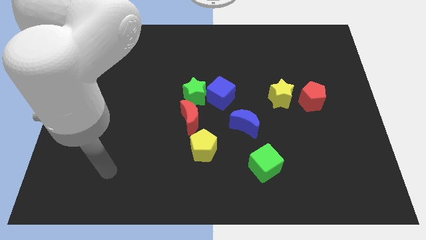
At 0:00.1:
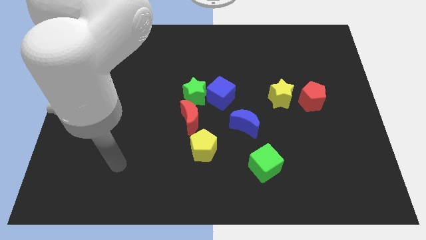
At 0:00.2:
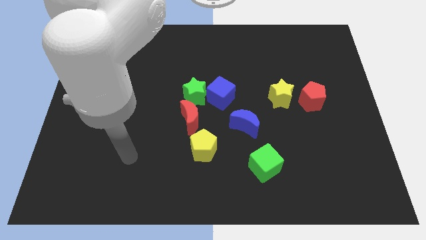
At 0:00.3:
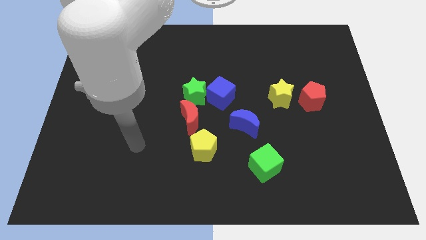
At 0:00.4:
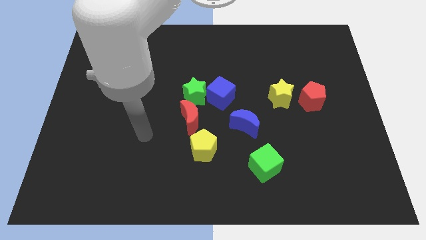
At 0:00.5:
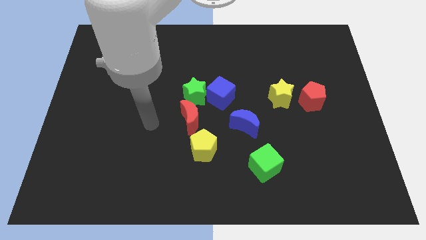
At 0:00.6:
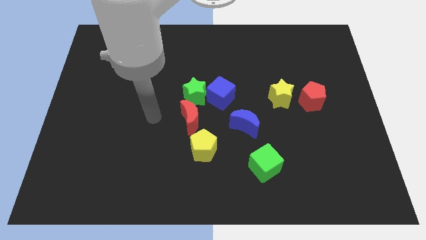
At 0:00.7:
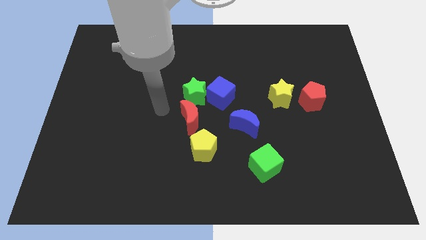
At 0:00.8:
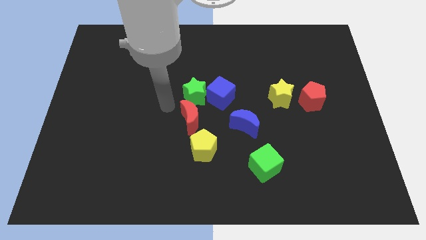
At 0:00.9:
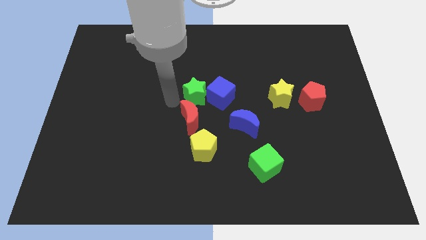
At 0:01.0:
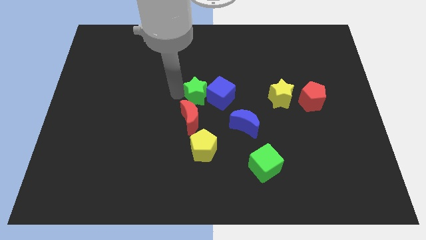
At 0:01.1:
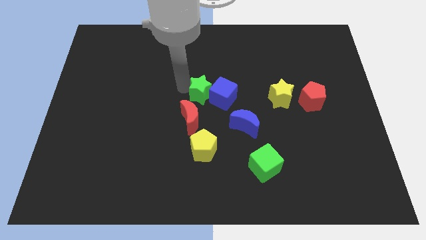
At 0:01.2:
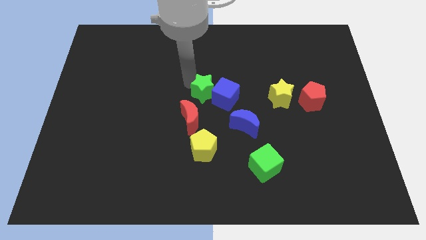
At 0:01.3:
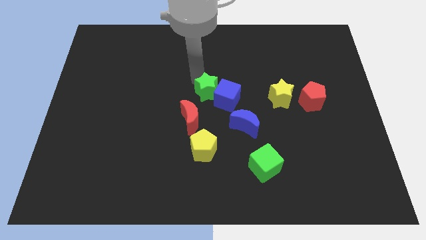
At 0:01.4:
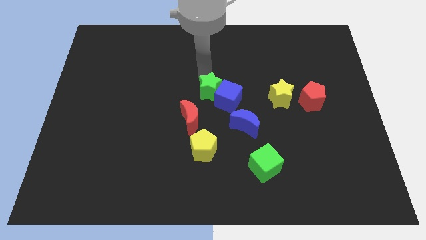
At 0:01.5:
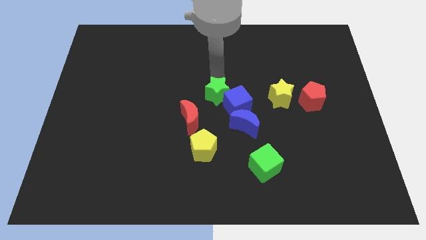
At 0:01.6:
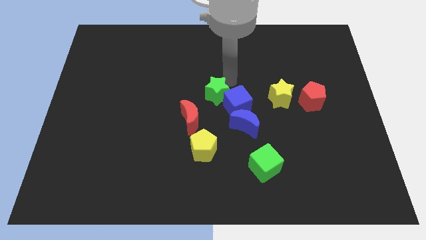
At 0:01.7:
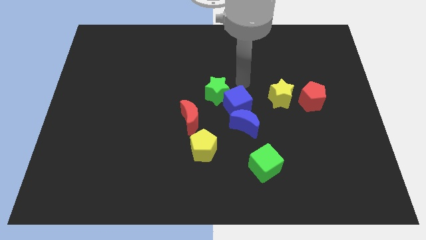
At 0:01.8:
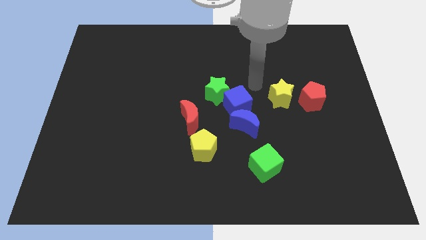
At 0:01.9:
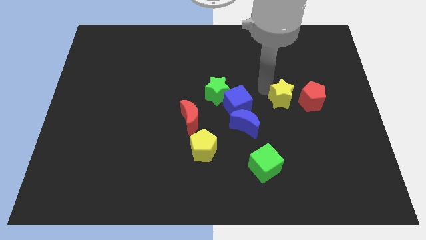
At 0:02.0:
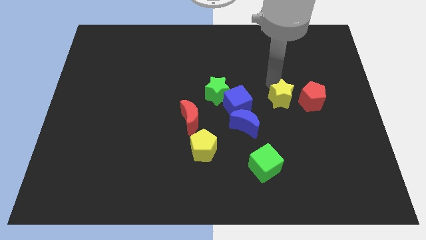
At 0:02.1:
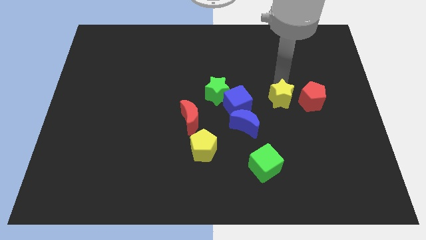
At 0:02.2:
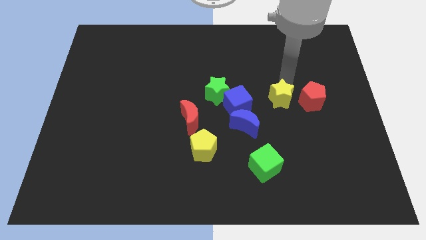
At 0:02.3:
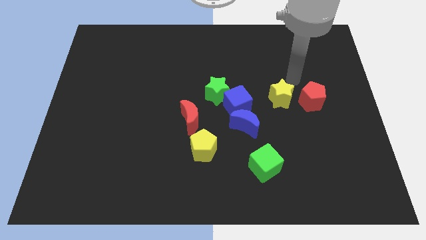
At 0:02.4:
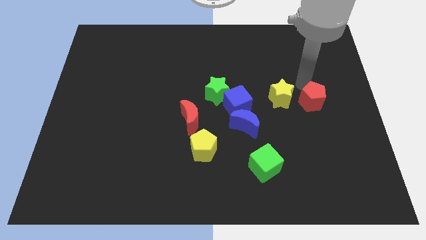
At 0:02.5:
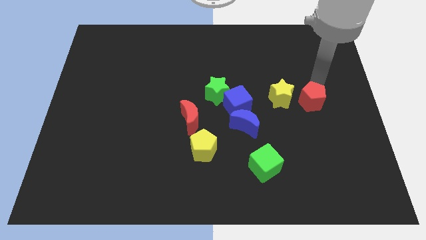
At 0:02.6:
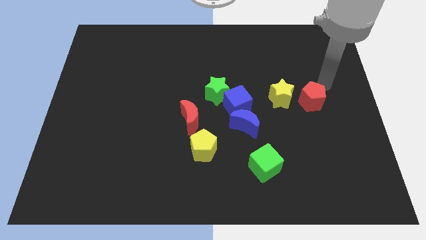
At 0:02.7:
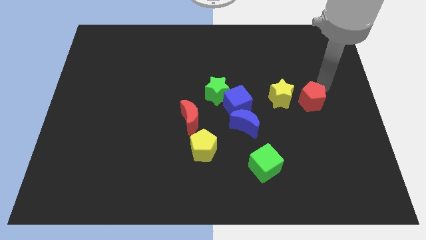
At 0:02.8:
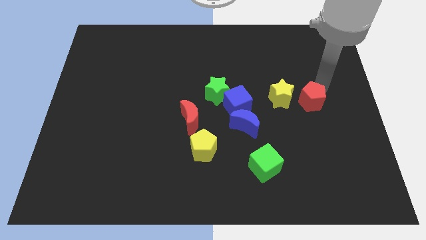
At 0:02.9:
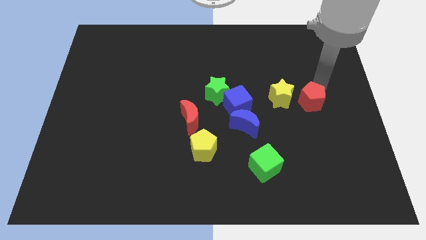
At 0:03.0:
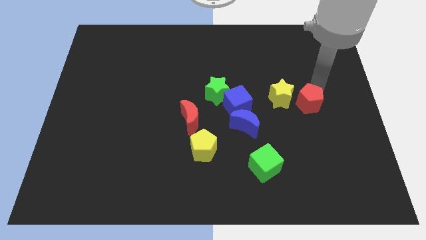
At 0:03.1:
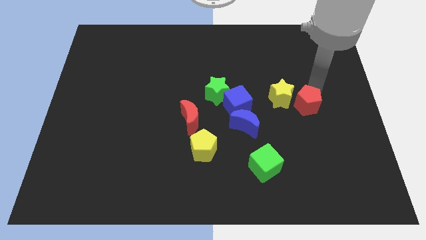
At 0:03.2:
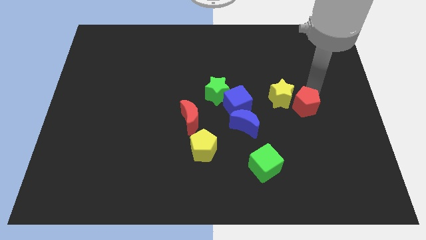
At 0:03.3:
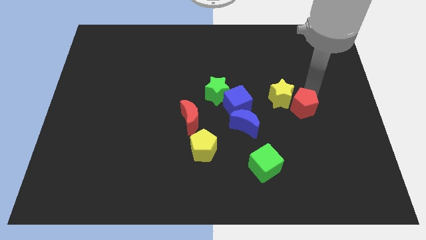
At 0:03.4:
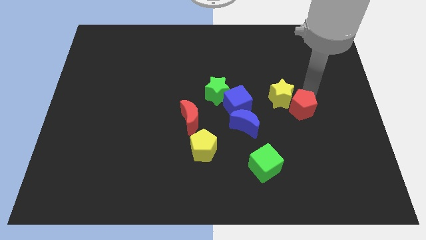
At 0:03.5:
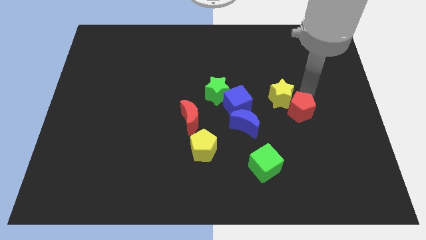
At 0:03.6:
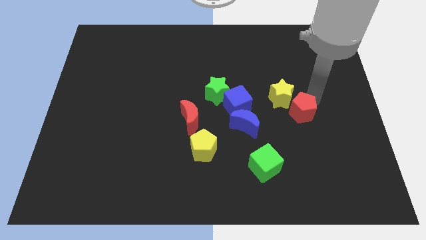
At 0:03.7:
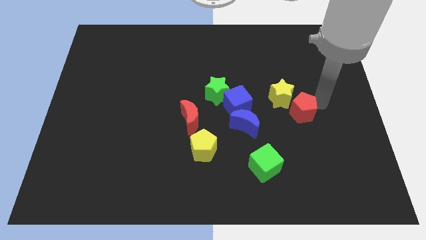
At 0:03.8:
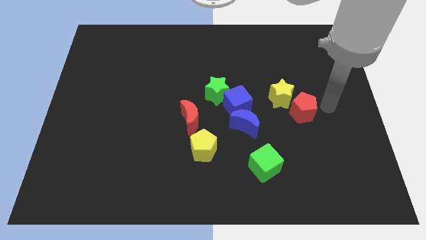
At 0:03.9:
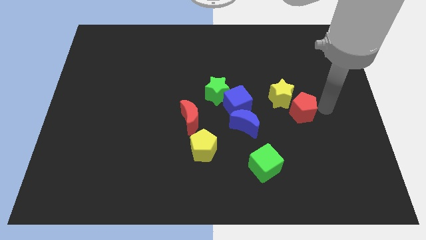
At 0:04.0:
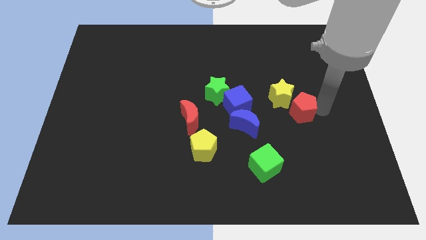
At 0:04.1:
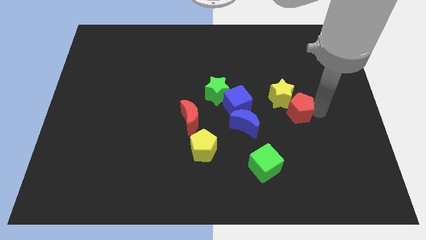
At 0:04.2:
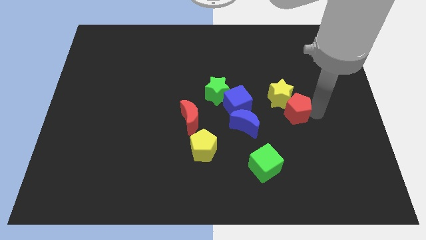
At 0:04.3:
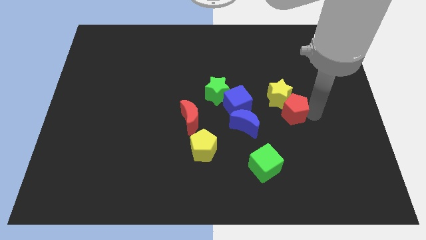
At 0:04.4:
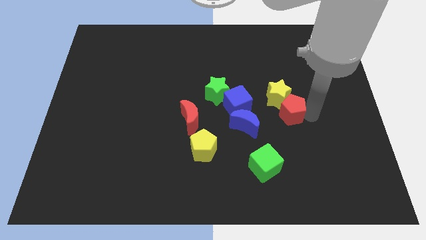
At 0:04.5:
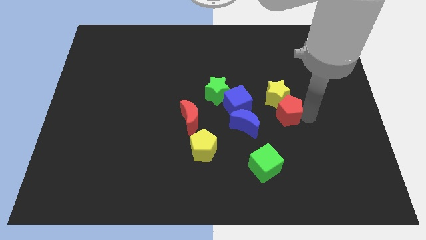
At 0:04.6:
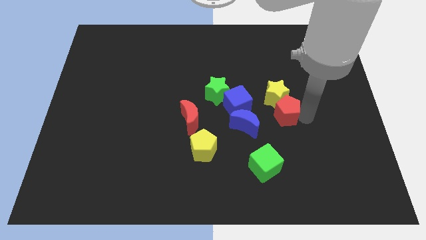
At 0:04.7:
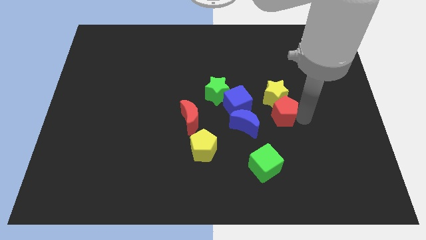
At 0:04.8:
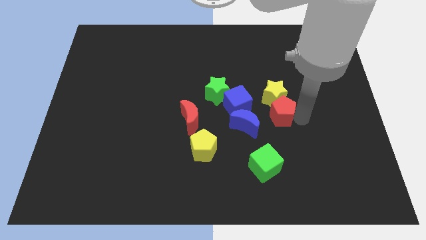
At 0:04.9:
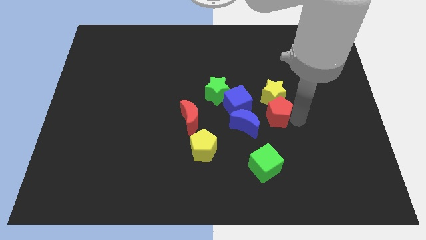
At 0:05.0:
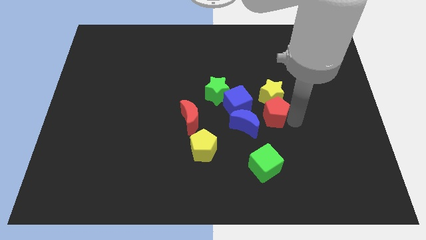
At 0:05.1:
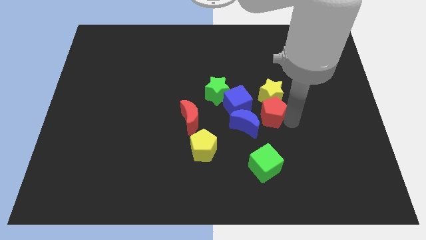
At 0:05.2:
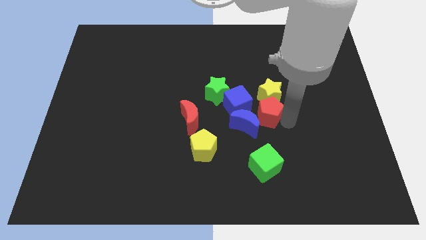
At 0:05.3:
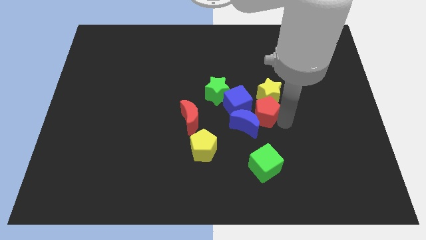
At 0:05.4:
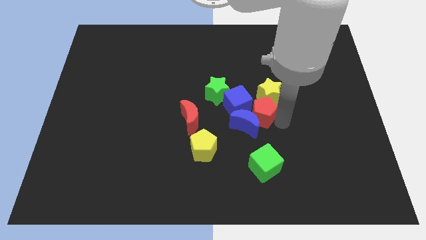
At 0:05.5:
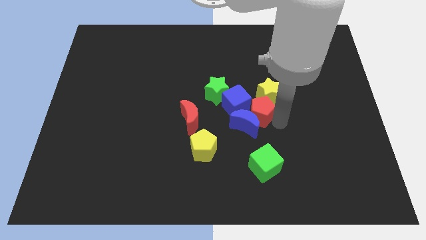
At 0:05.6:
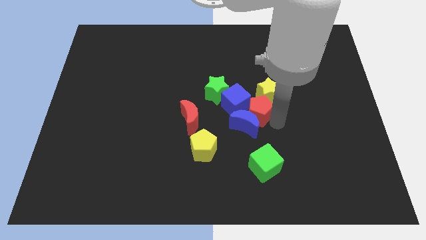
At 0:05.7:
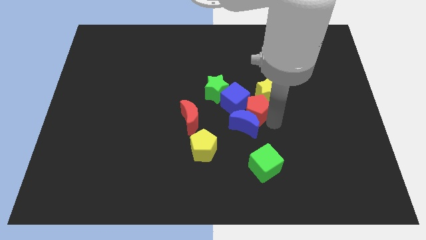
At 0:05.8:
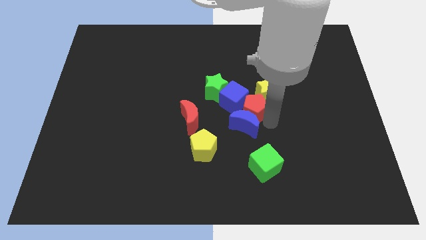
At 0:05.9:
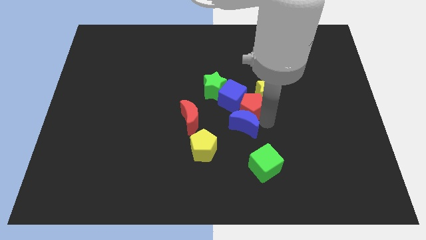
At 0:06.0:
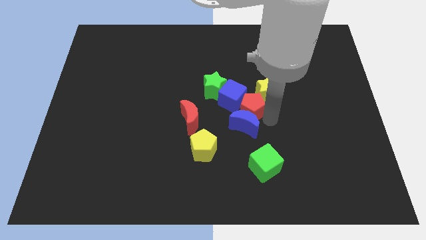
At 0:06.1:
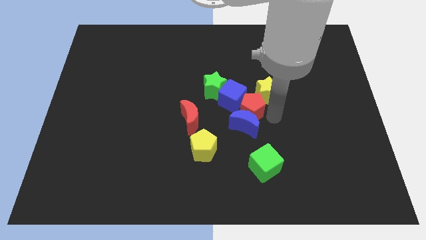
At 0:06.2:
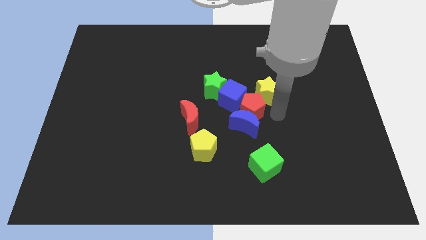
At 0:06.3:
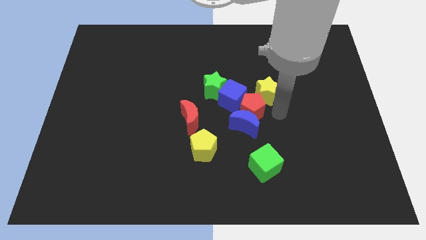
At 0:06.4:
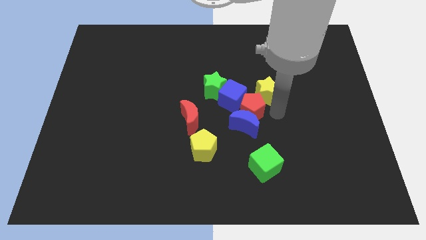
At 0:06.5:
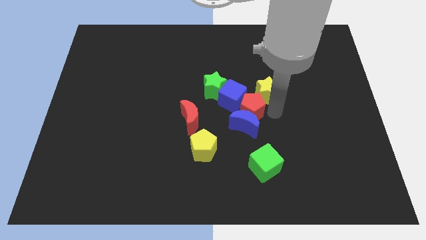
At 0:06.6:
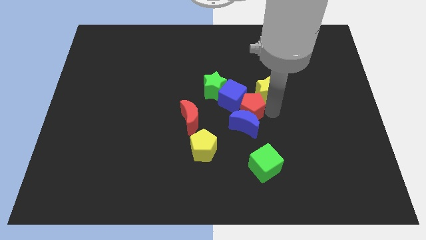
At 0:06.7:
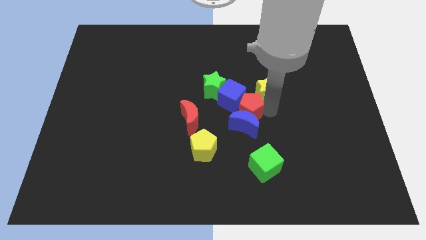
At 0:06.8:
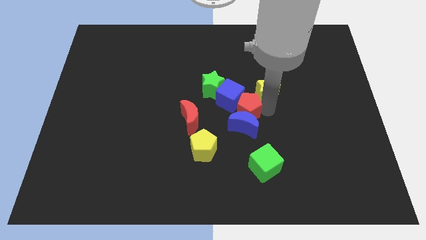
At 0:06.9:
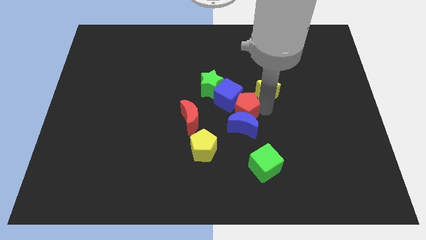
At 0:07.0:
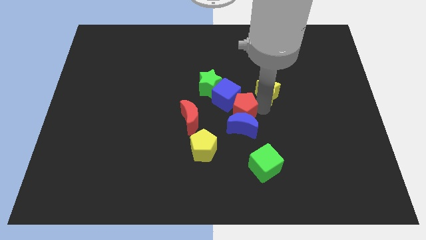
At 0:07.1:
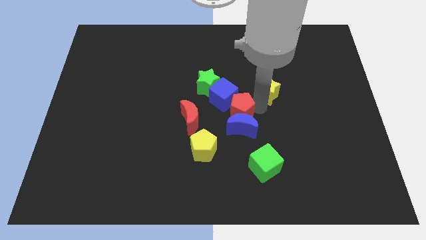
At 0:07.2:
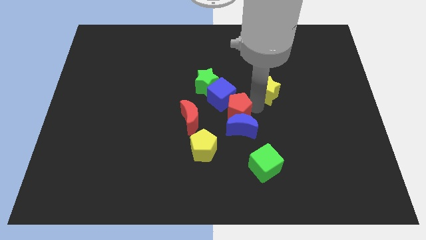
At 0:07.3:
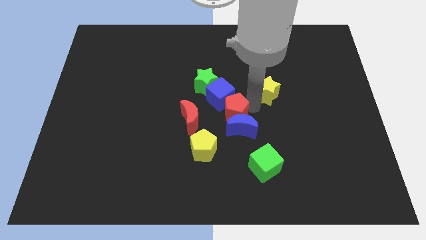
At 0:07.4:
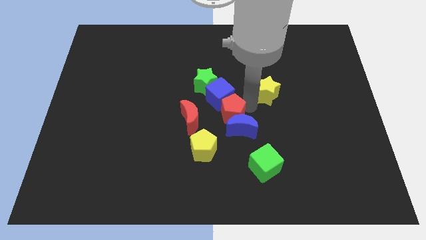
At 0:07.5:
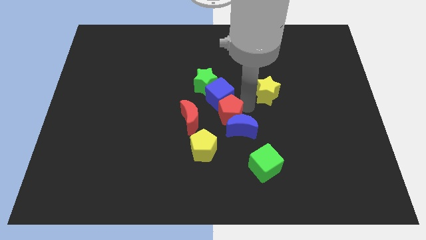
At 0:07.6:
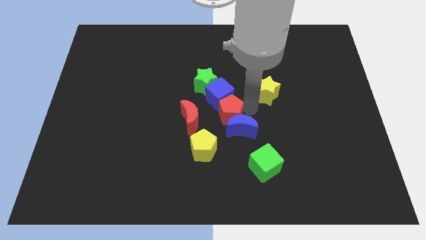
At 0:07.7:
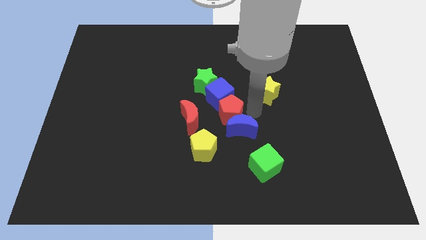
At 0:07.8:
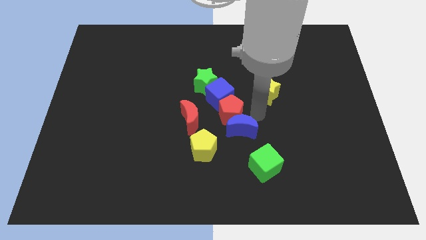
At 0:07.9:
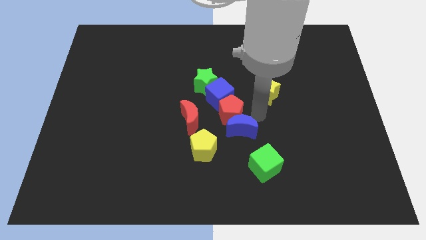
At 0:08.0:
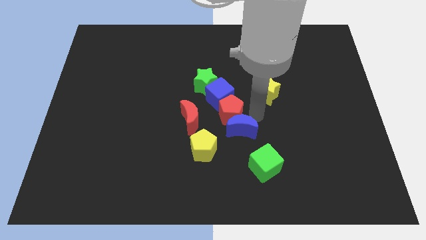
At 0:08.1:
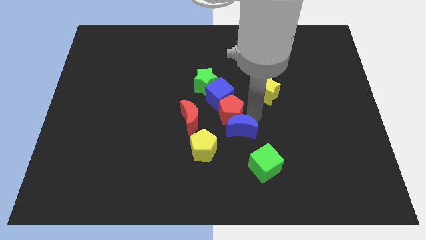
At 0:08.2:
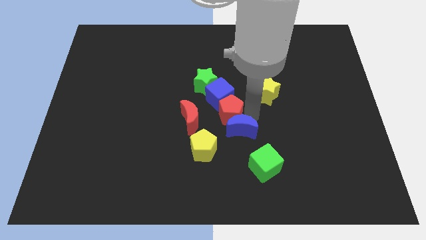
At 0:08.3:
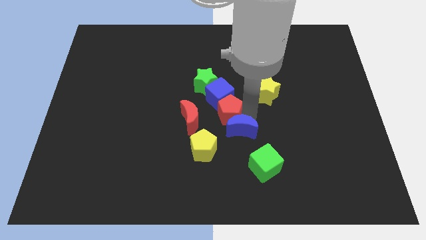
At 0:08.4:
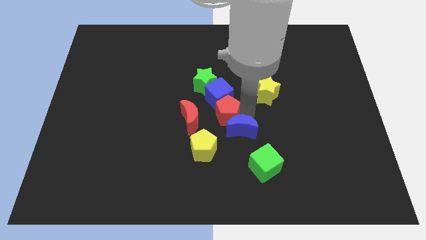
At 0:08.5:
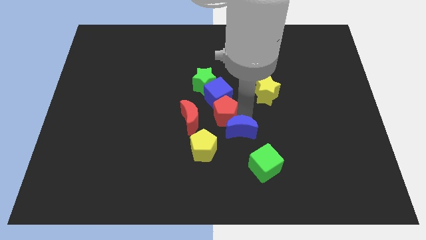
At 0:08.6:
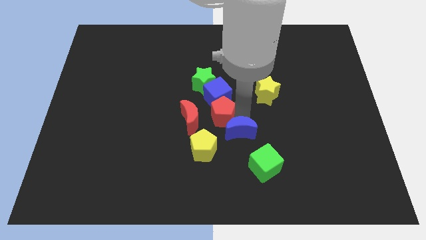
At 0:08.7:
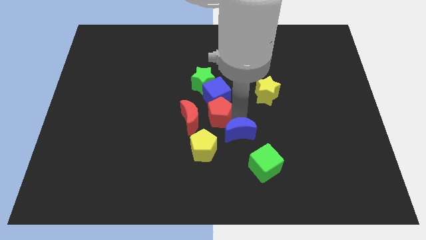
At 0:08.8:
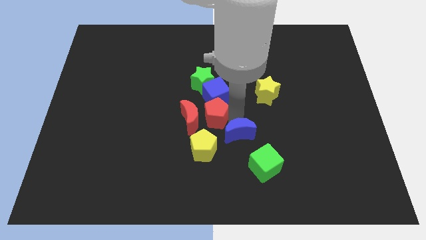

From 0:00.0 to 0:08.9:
slide the red pentagon close to the red moon
